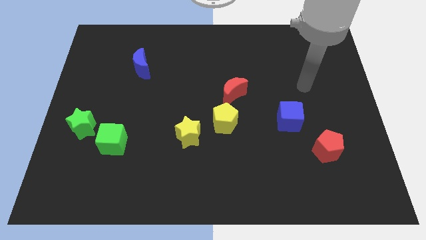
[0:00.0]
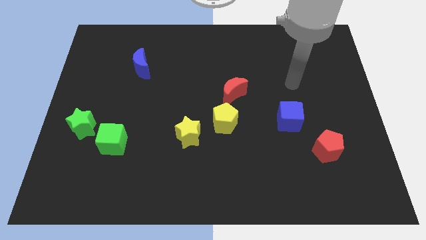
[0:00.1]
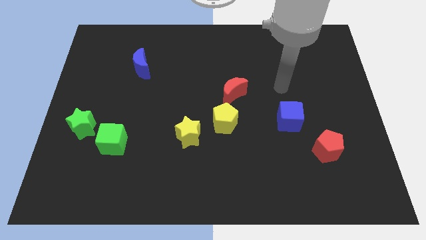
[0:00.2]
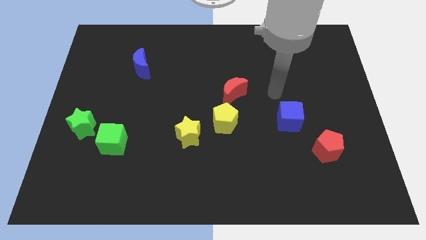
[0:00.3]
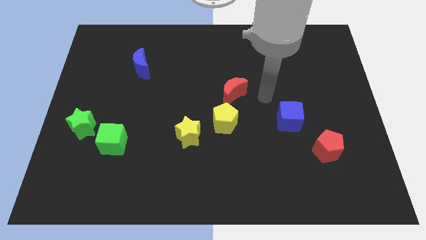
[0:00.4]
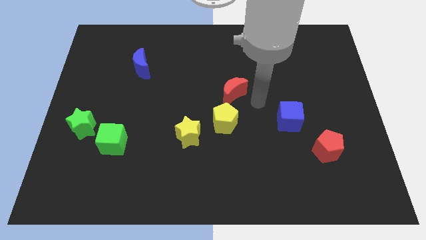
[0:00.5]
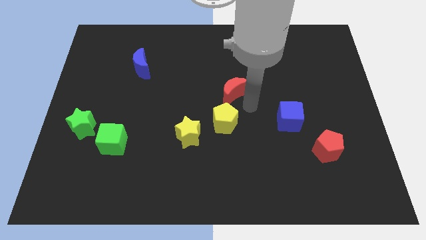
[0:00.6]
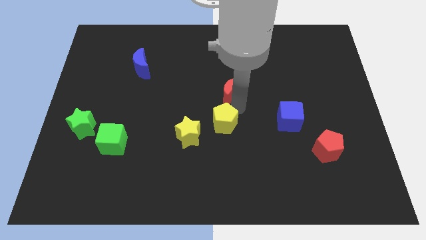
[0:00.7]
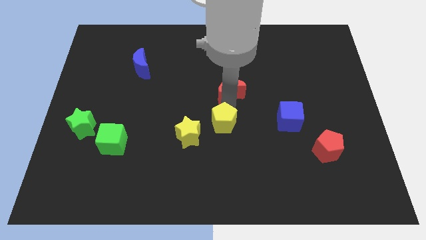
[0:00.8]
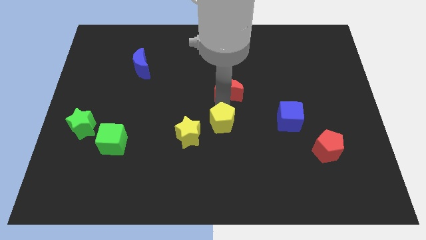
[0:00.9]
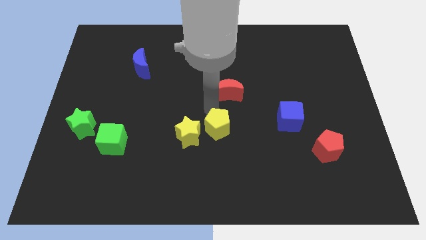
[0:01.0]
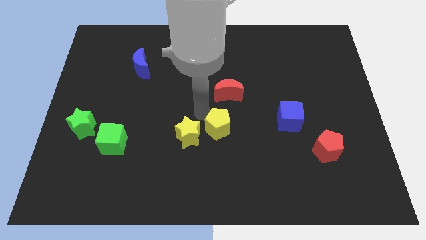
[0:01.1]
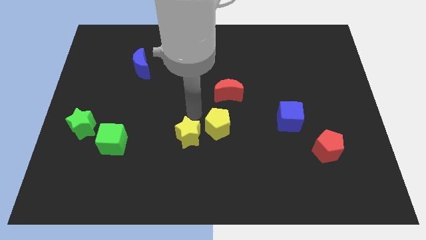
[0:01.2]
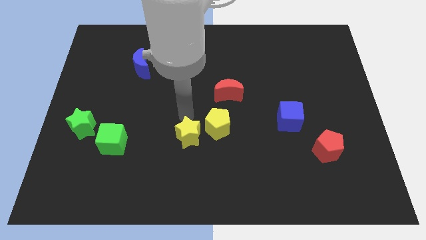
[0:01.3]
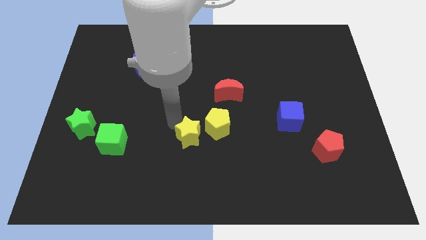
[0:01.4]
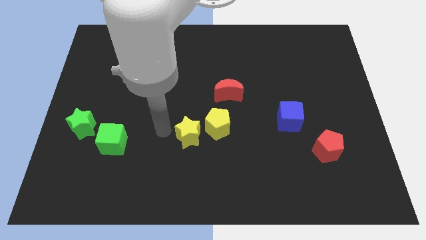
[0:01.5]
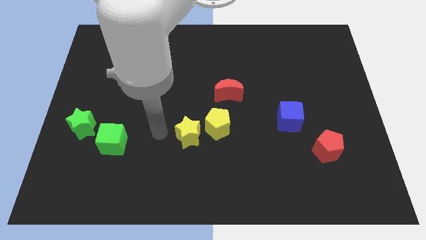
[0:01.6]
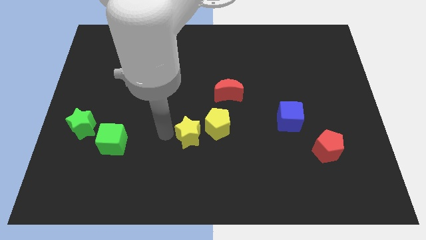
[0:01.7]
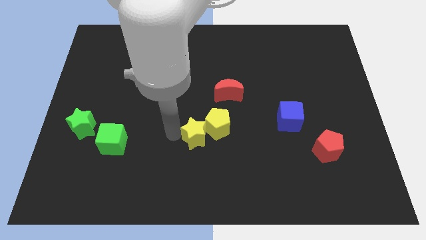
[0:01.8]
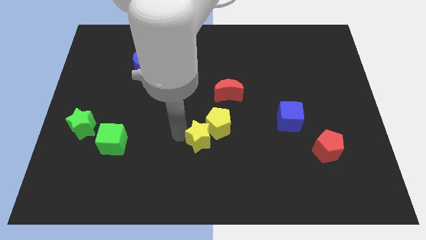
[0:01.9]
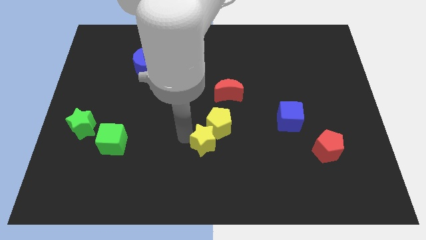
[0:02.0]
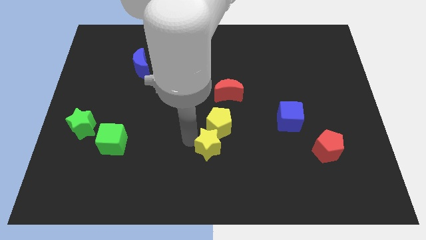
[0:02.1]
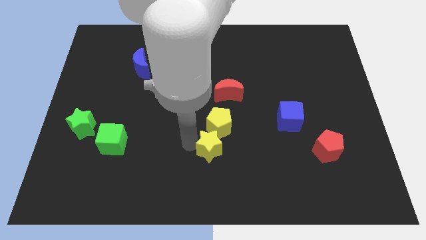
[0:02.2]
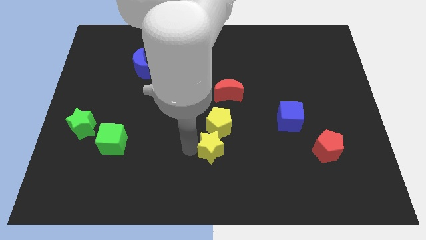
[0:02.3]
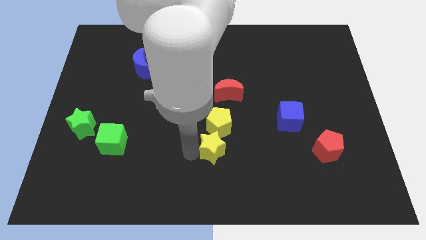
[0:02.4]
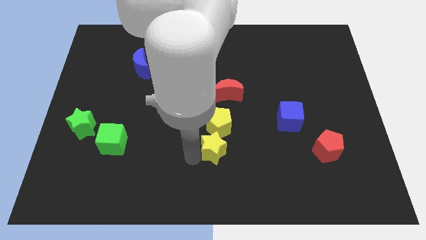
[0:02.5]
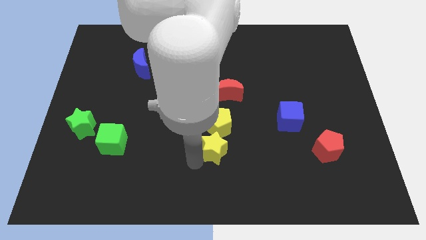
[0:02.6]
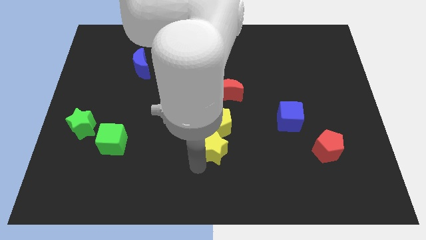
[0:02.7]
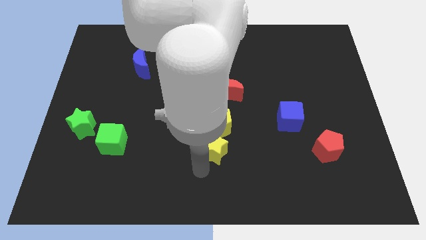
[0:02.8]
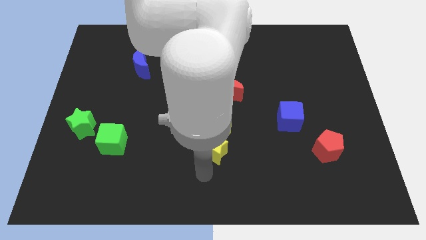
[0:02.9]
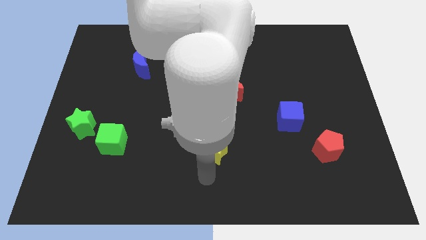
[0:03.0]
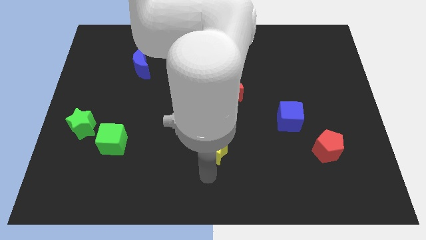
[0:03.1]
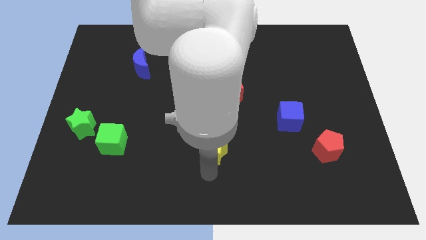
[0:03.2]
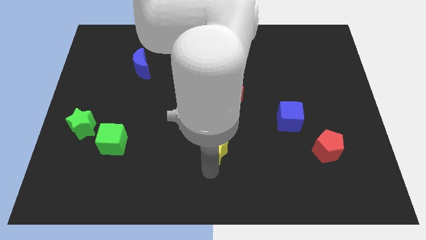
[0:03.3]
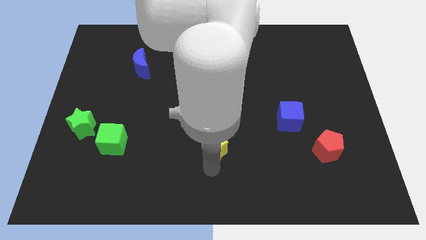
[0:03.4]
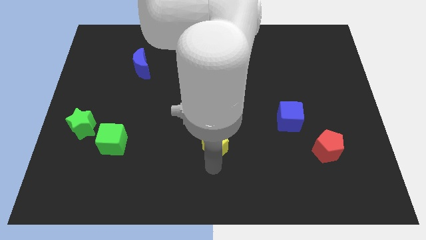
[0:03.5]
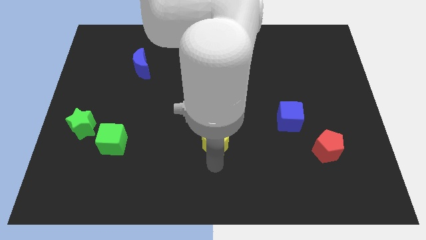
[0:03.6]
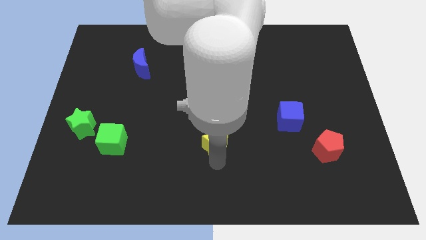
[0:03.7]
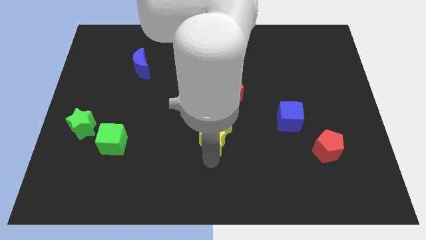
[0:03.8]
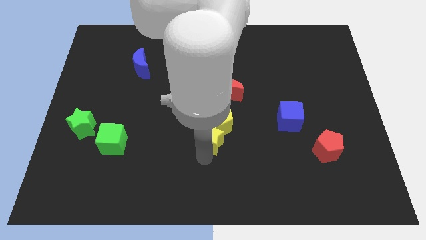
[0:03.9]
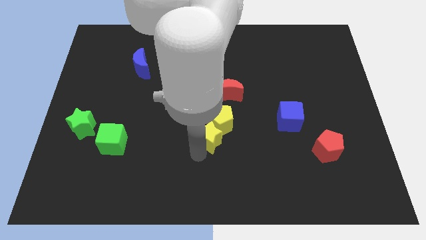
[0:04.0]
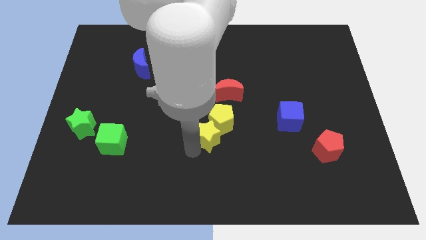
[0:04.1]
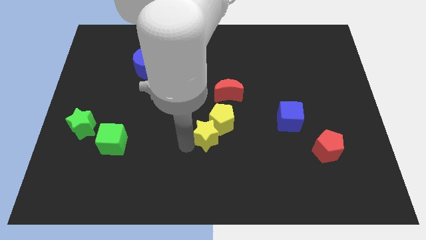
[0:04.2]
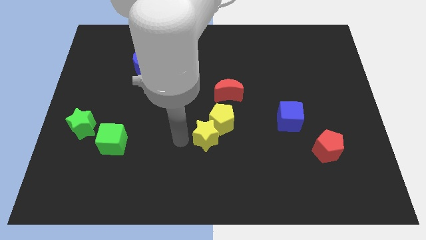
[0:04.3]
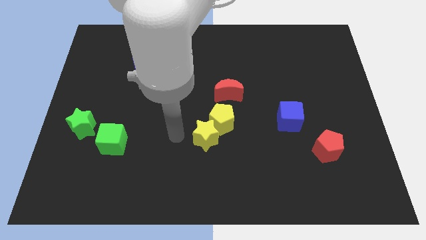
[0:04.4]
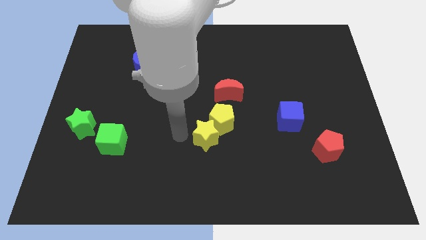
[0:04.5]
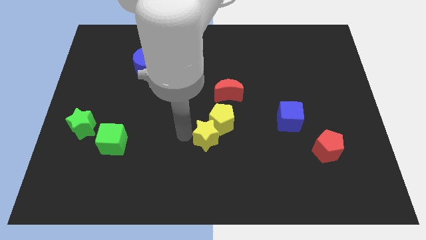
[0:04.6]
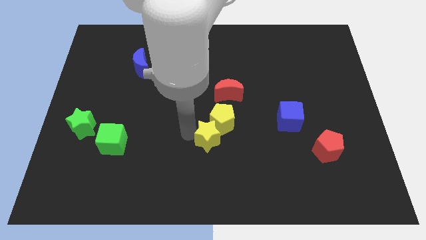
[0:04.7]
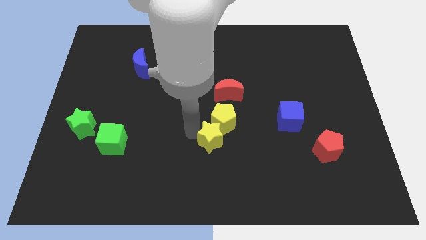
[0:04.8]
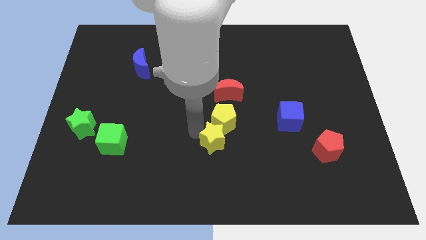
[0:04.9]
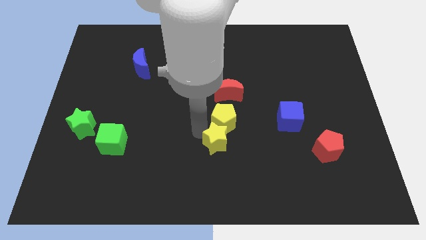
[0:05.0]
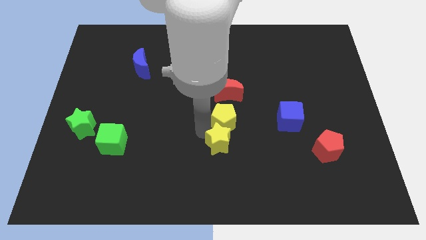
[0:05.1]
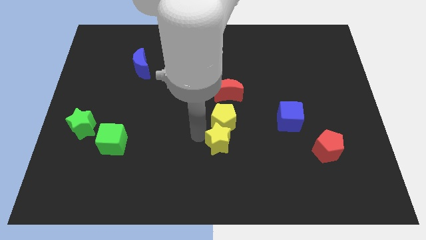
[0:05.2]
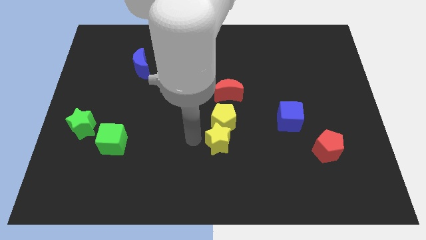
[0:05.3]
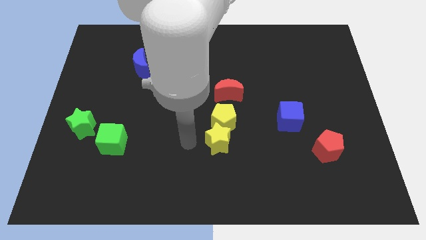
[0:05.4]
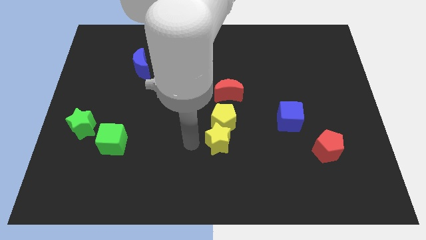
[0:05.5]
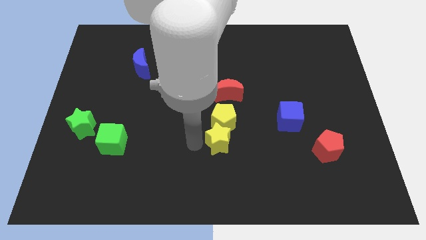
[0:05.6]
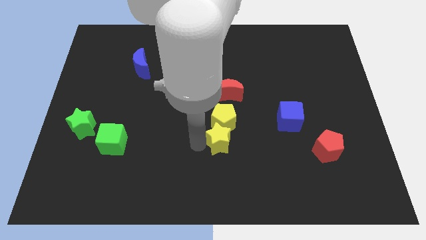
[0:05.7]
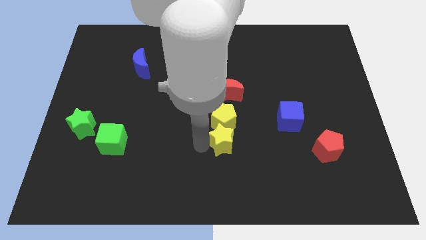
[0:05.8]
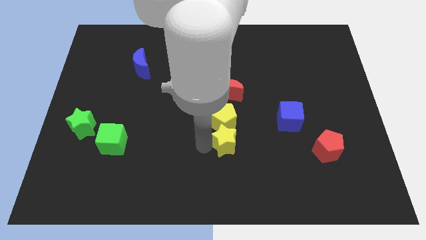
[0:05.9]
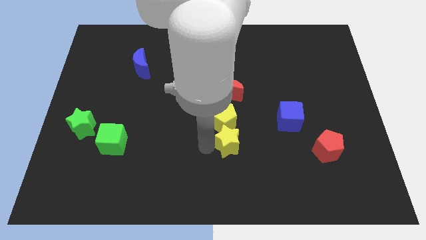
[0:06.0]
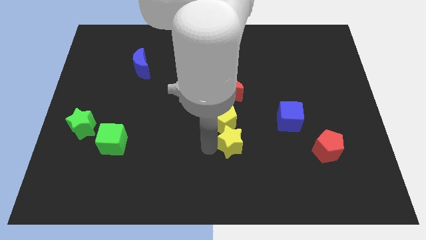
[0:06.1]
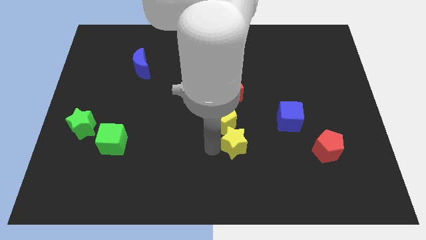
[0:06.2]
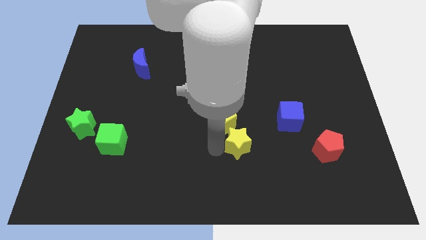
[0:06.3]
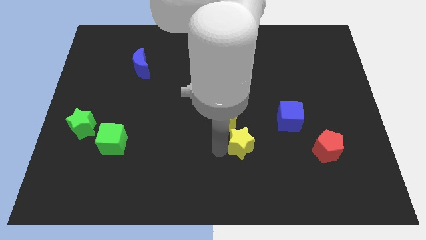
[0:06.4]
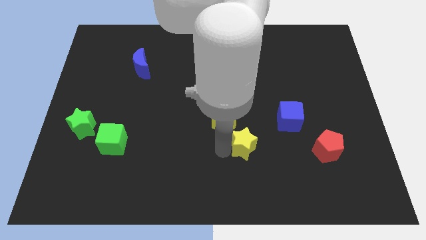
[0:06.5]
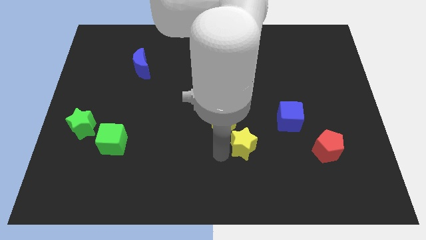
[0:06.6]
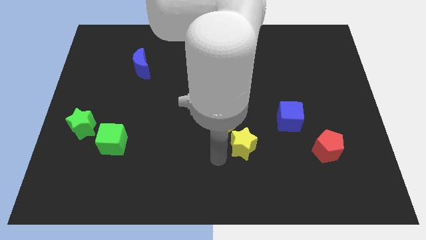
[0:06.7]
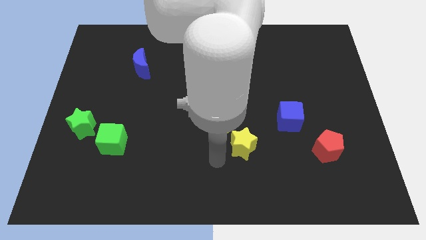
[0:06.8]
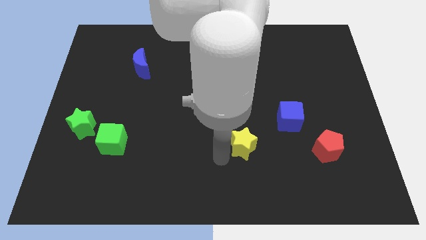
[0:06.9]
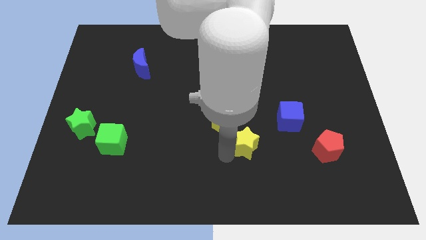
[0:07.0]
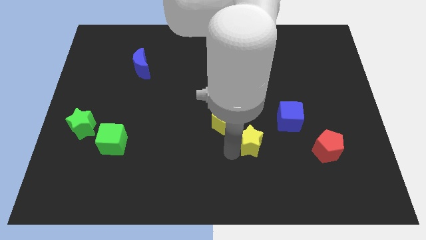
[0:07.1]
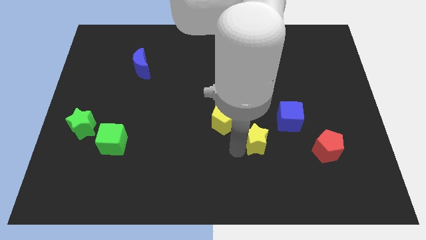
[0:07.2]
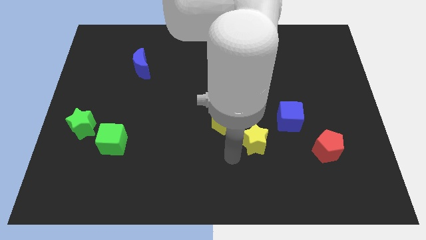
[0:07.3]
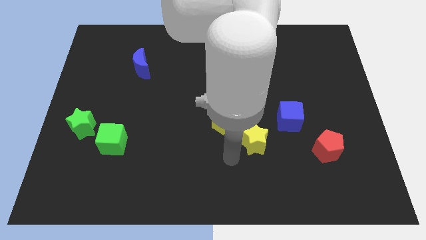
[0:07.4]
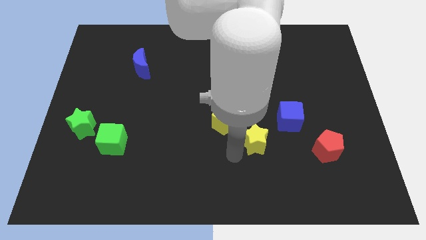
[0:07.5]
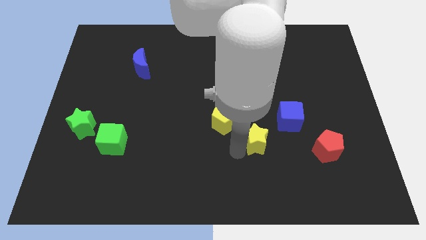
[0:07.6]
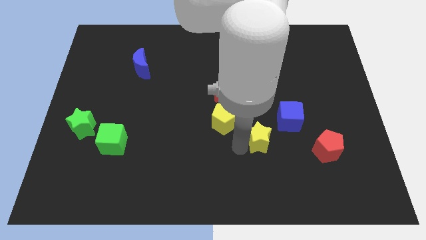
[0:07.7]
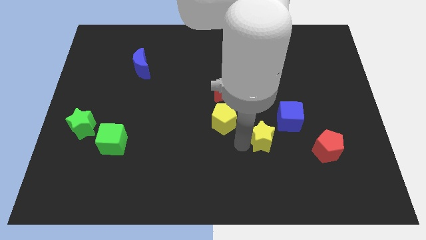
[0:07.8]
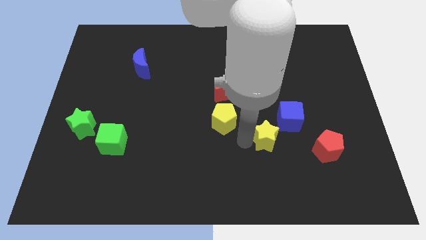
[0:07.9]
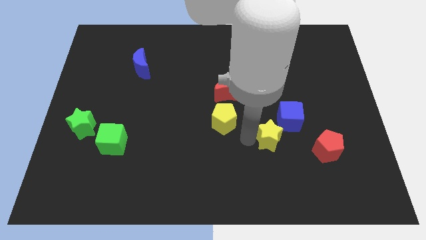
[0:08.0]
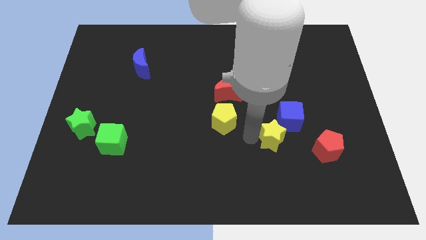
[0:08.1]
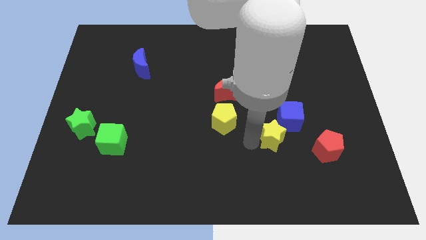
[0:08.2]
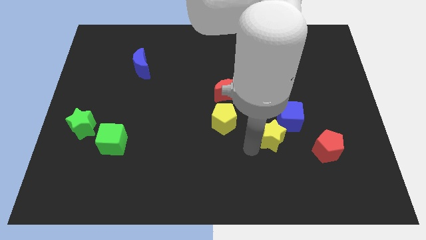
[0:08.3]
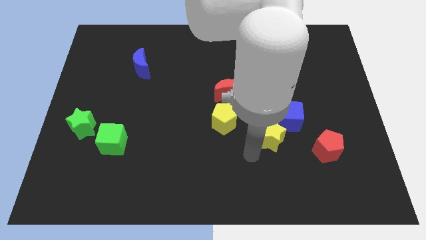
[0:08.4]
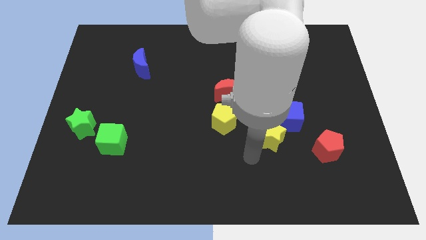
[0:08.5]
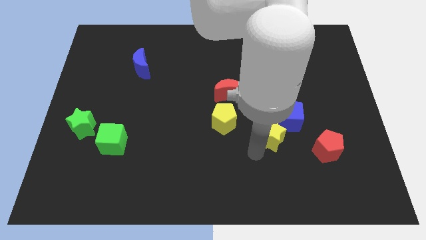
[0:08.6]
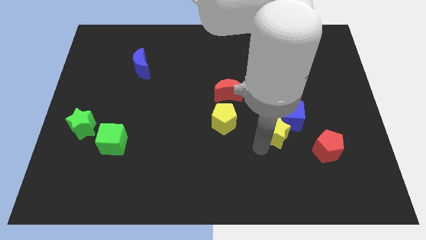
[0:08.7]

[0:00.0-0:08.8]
put the yellow star close to the blue cube
